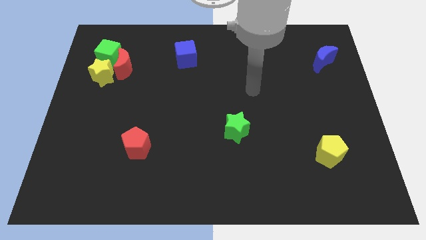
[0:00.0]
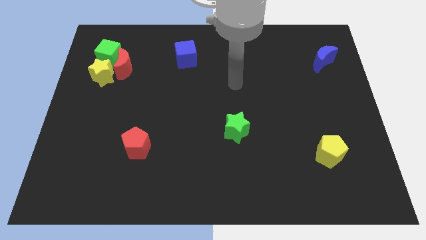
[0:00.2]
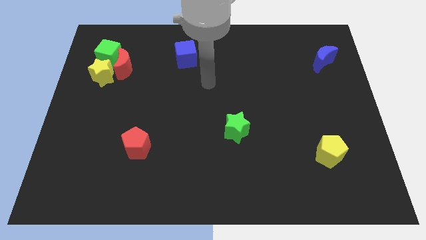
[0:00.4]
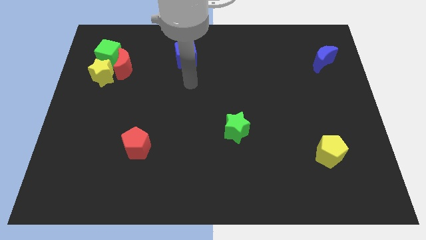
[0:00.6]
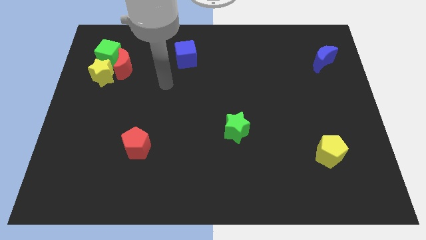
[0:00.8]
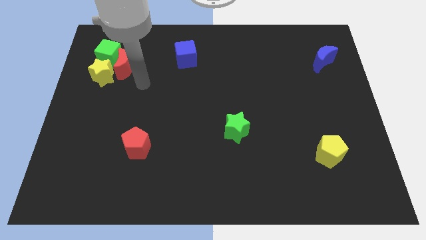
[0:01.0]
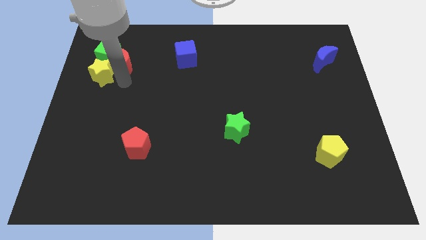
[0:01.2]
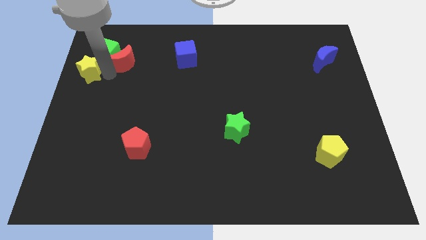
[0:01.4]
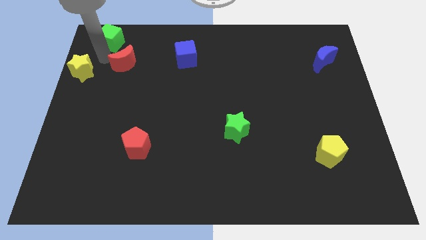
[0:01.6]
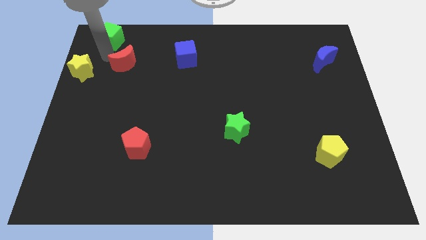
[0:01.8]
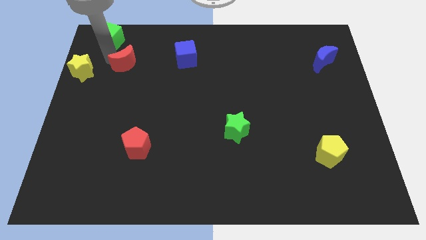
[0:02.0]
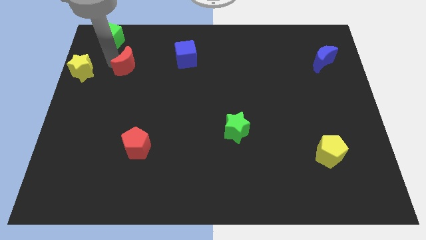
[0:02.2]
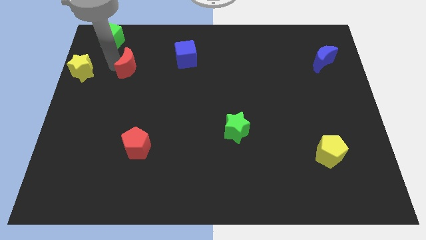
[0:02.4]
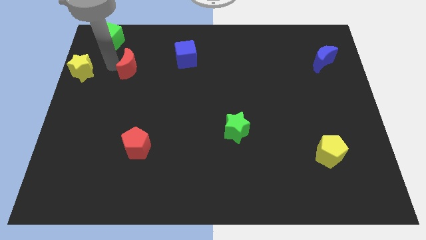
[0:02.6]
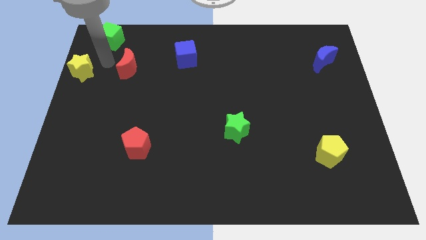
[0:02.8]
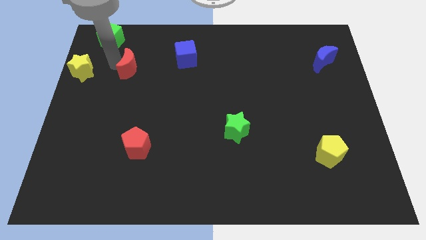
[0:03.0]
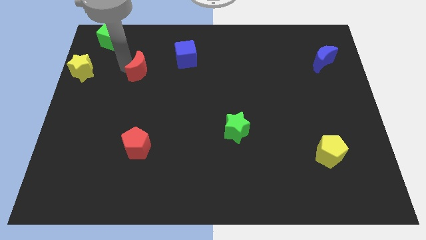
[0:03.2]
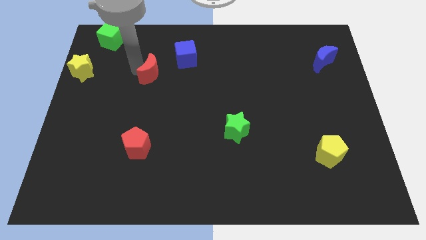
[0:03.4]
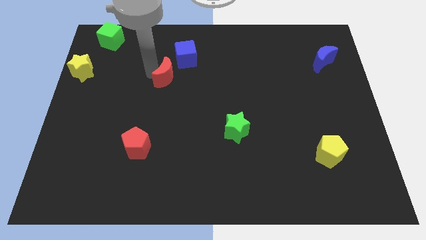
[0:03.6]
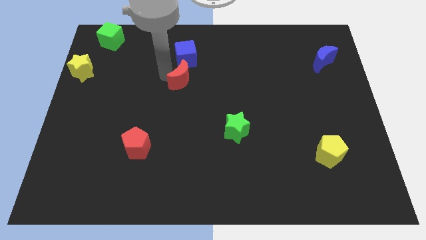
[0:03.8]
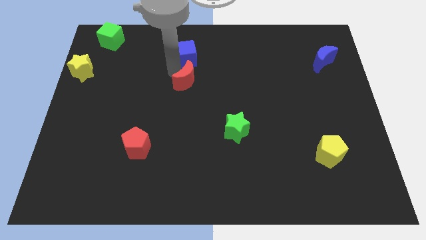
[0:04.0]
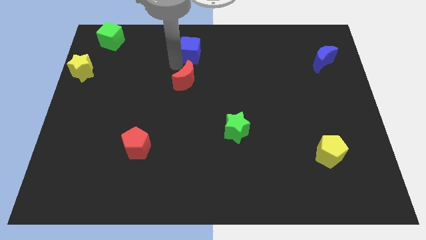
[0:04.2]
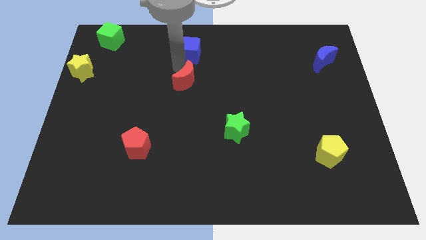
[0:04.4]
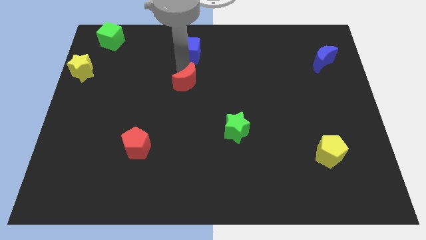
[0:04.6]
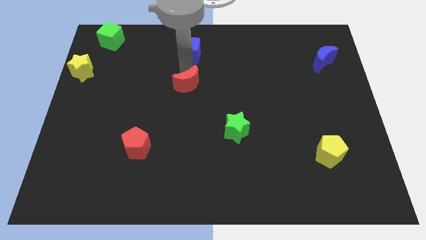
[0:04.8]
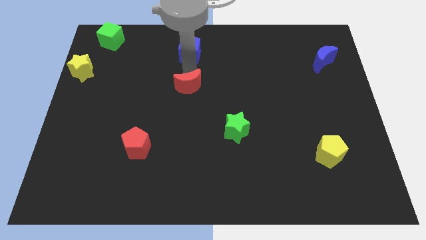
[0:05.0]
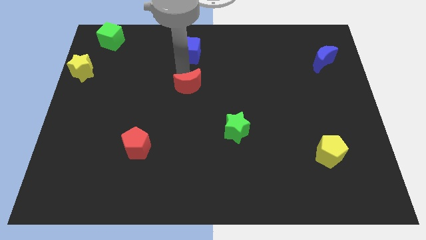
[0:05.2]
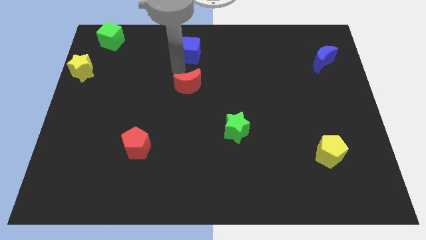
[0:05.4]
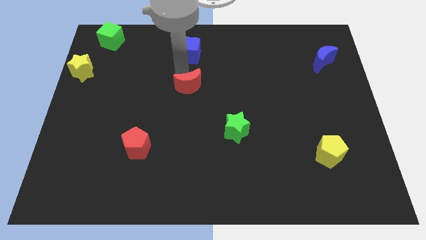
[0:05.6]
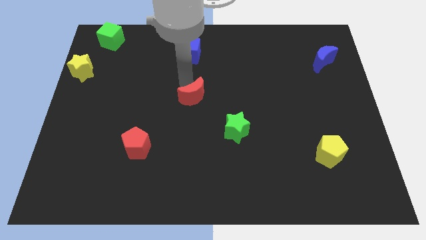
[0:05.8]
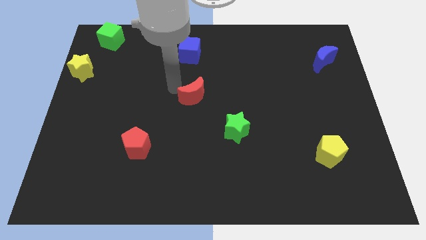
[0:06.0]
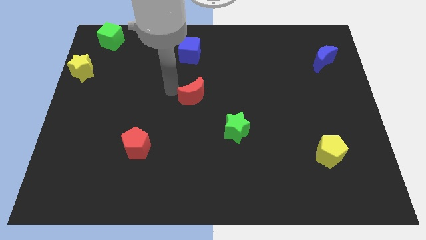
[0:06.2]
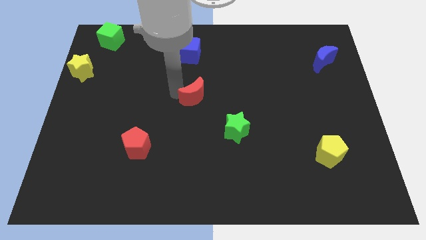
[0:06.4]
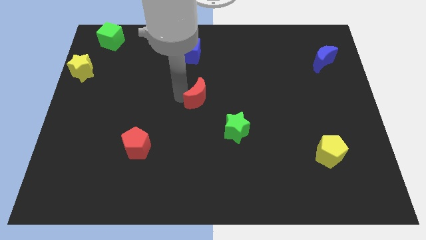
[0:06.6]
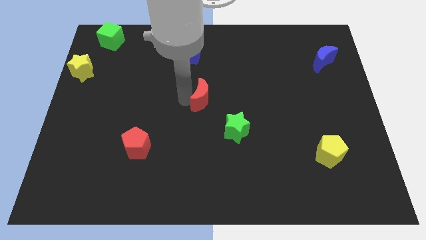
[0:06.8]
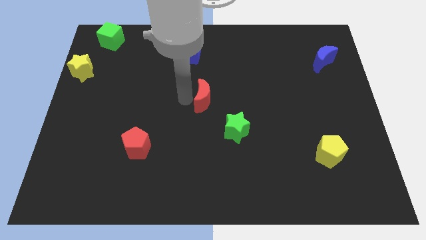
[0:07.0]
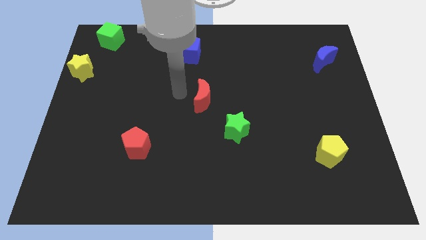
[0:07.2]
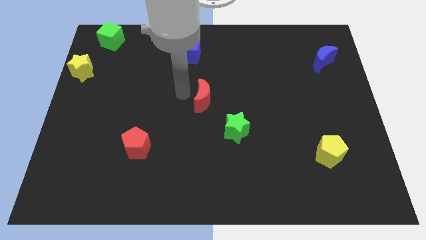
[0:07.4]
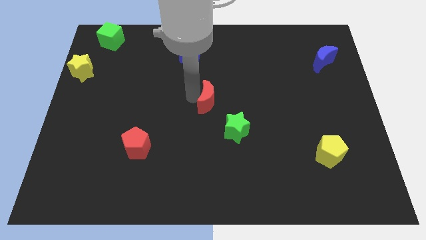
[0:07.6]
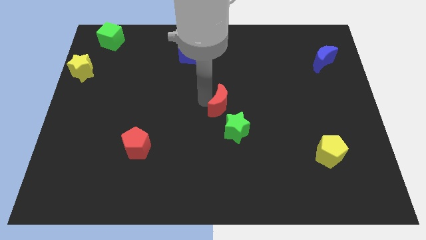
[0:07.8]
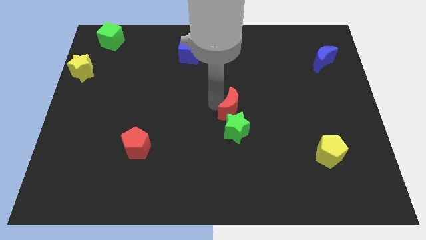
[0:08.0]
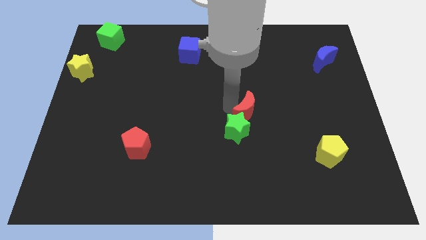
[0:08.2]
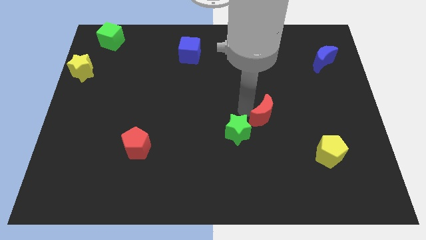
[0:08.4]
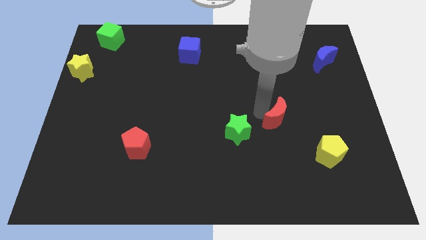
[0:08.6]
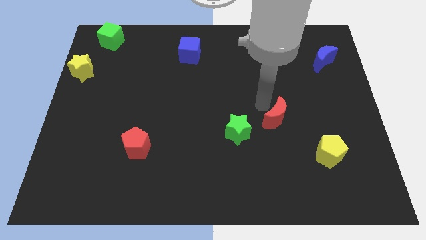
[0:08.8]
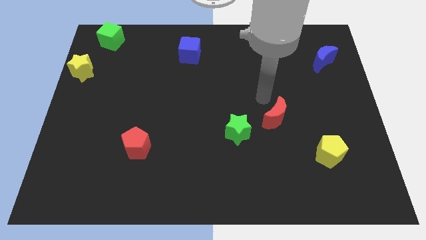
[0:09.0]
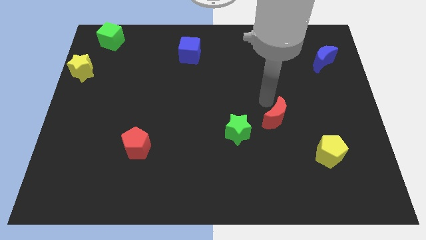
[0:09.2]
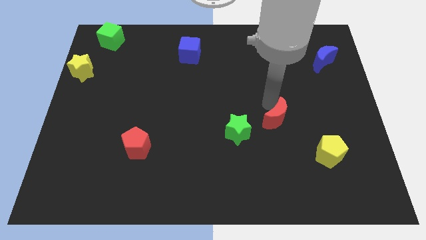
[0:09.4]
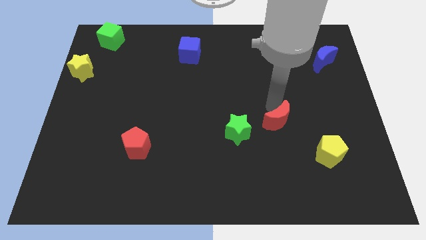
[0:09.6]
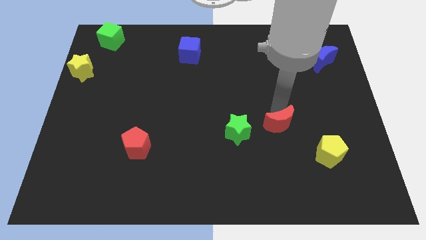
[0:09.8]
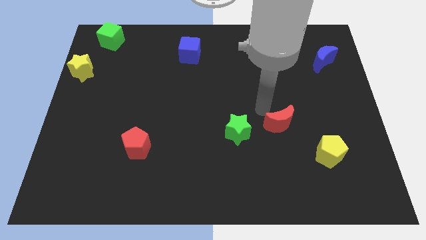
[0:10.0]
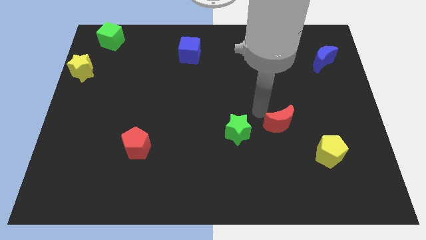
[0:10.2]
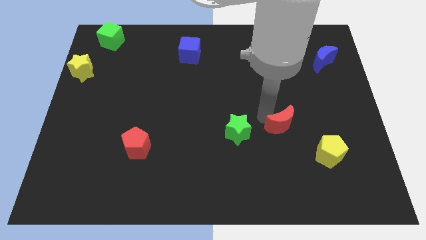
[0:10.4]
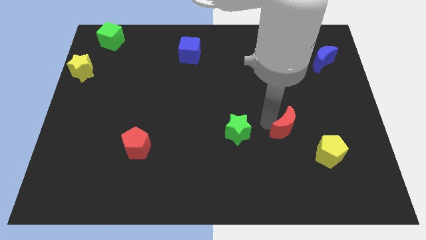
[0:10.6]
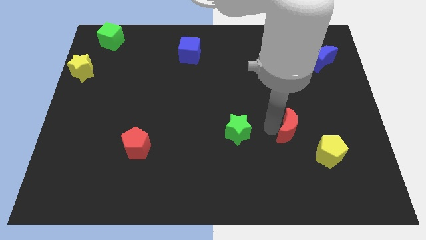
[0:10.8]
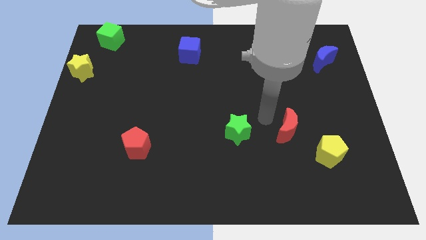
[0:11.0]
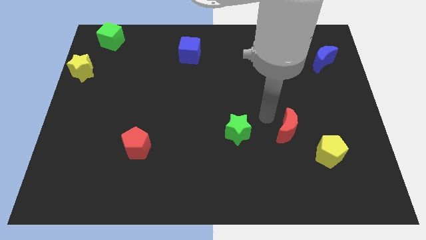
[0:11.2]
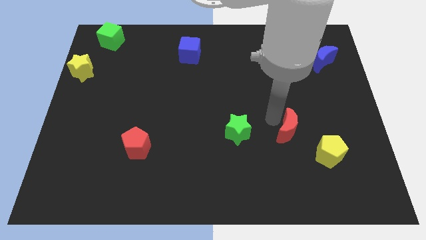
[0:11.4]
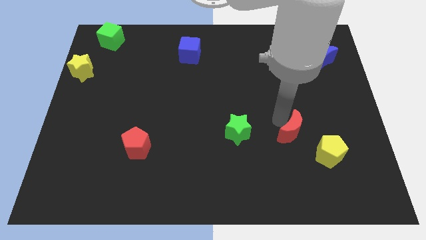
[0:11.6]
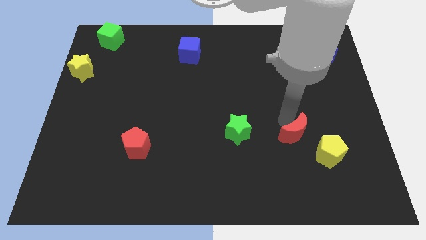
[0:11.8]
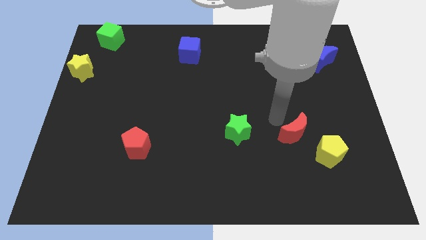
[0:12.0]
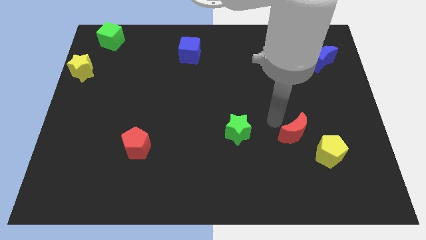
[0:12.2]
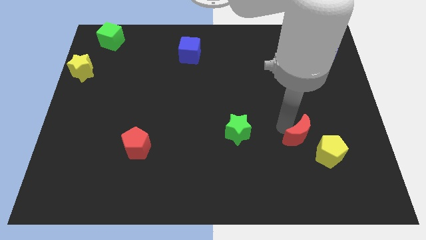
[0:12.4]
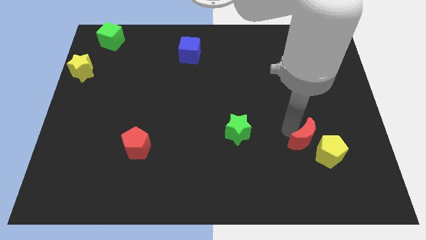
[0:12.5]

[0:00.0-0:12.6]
push the red moon to the yellow pentagon

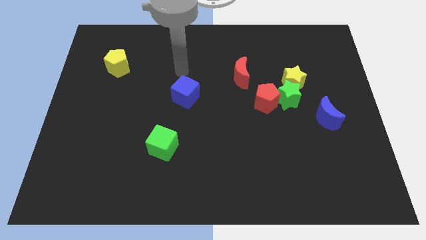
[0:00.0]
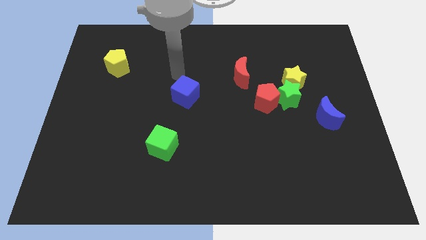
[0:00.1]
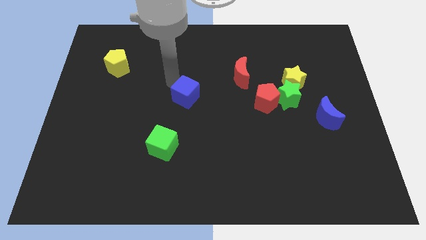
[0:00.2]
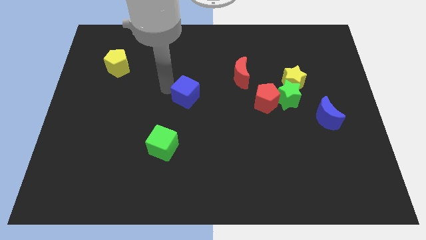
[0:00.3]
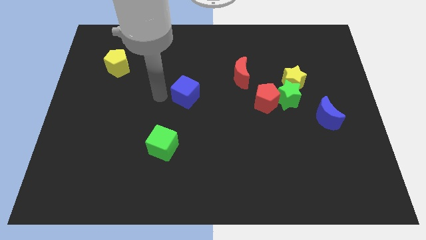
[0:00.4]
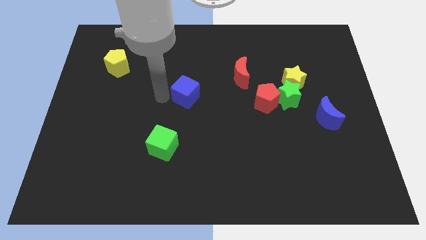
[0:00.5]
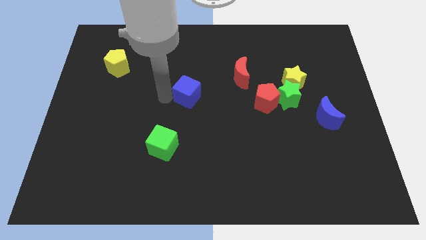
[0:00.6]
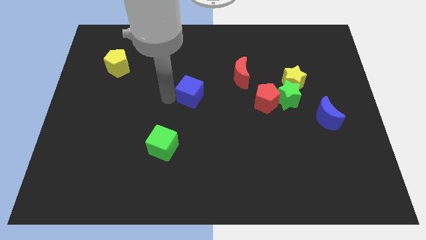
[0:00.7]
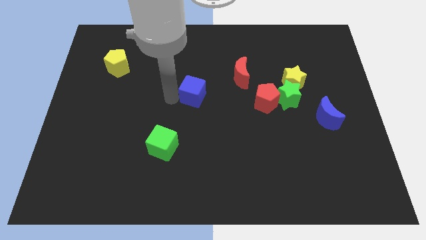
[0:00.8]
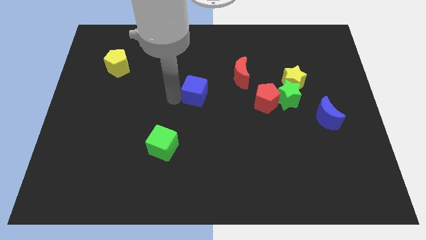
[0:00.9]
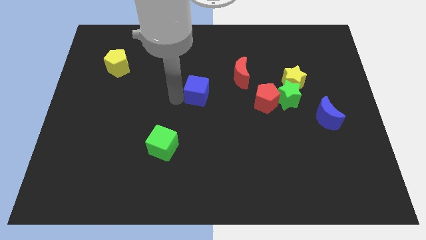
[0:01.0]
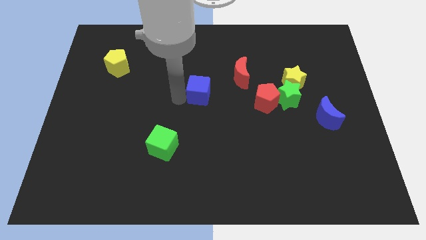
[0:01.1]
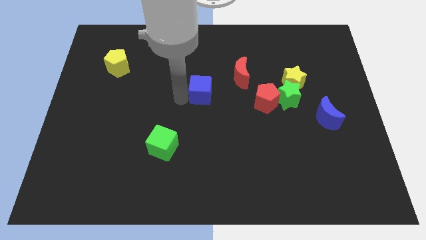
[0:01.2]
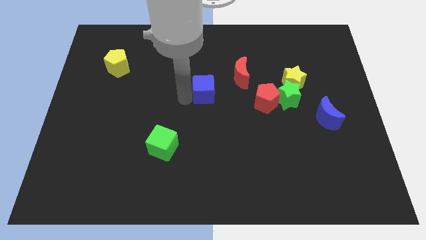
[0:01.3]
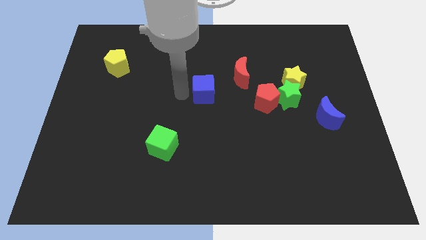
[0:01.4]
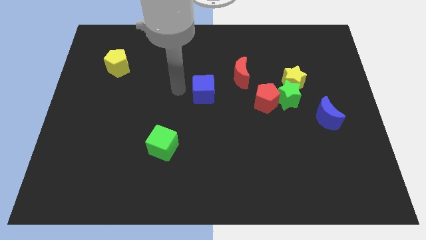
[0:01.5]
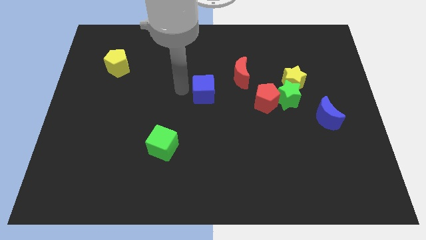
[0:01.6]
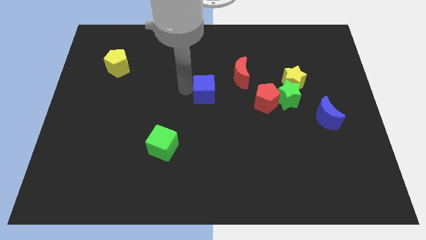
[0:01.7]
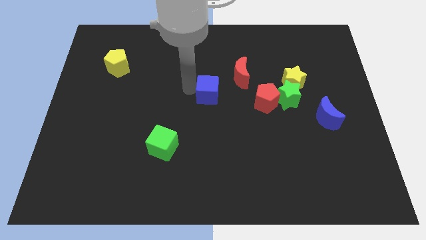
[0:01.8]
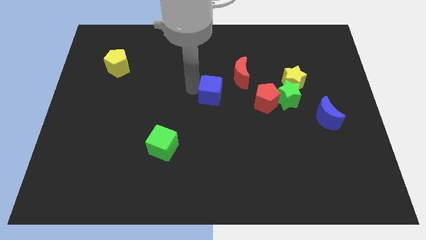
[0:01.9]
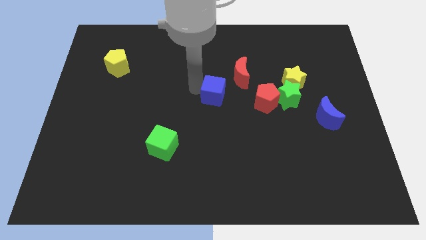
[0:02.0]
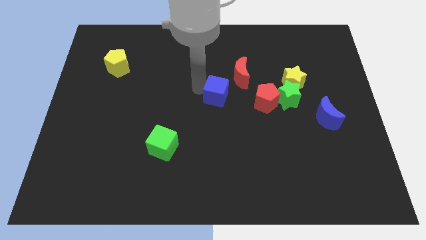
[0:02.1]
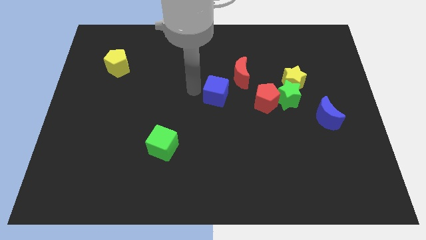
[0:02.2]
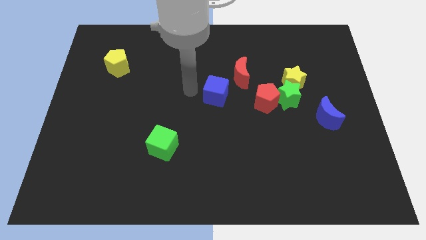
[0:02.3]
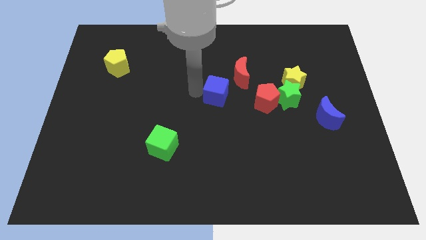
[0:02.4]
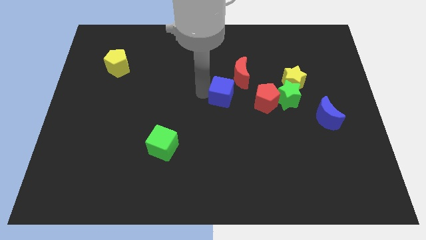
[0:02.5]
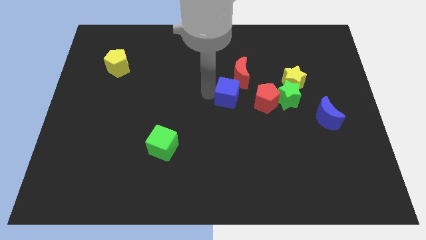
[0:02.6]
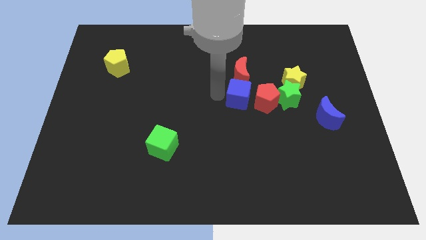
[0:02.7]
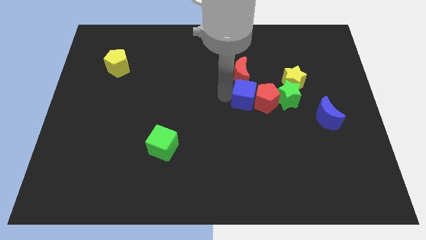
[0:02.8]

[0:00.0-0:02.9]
move the blue cube to the red pentagon
